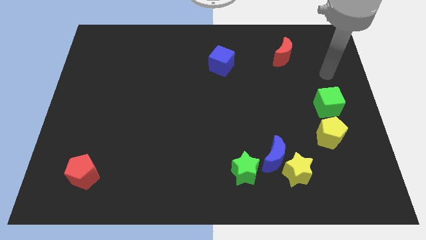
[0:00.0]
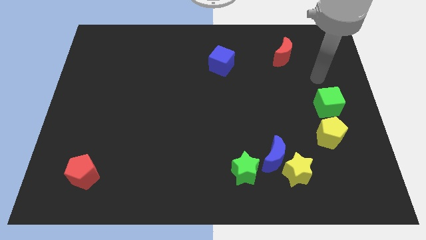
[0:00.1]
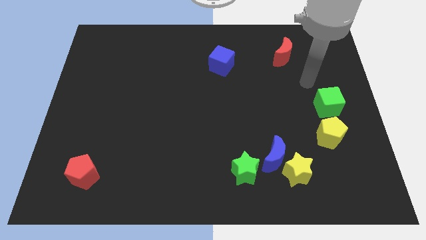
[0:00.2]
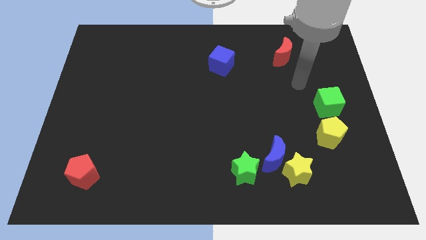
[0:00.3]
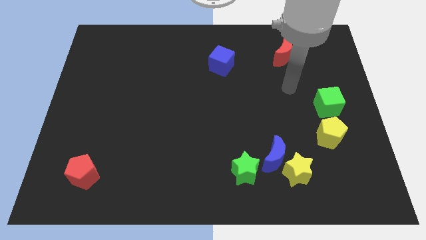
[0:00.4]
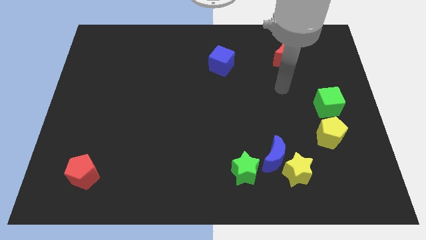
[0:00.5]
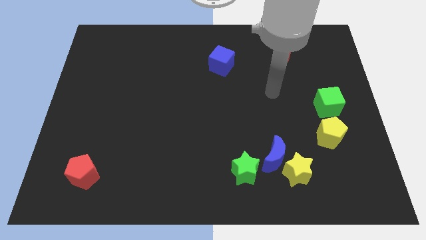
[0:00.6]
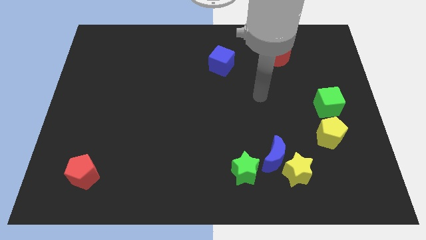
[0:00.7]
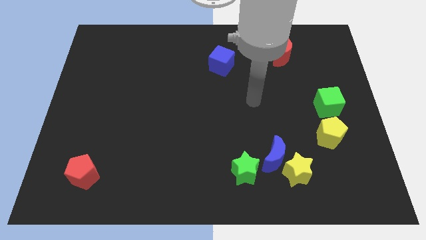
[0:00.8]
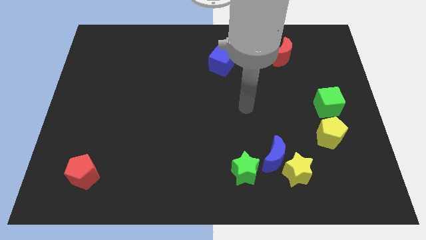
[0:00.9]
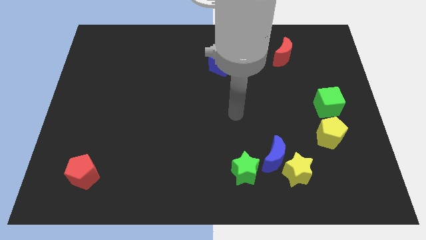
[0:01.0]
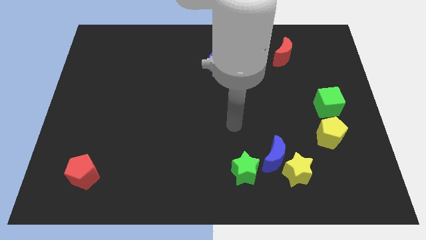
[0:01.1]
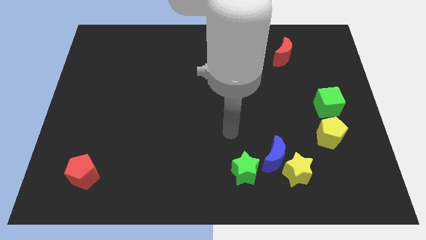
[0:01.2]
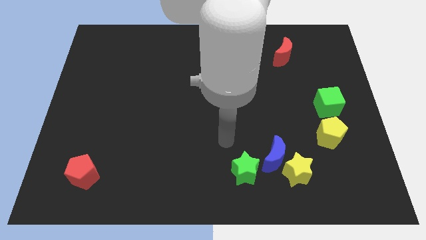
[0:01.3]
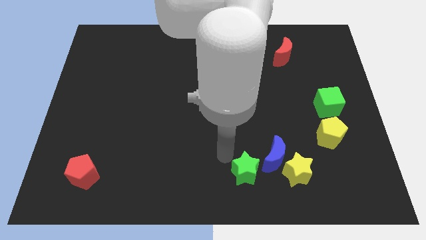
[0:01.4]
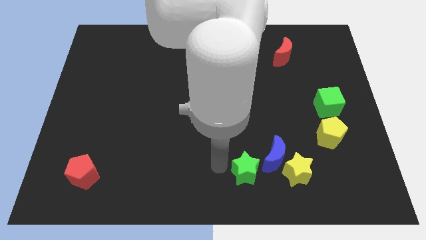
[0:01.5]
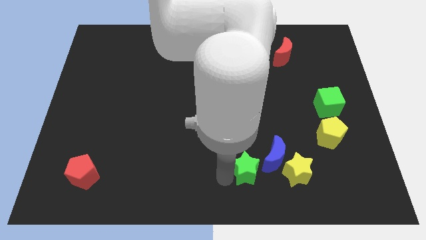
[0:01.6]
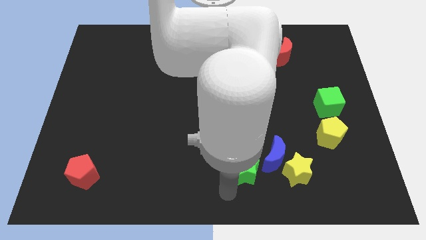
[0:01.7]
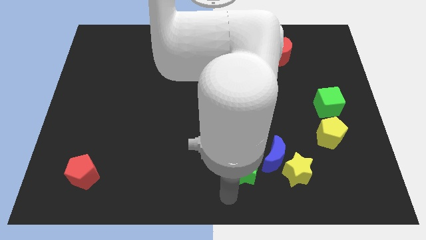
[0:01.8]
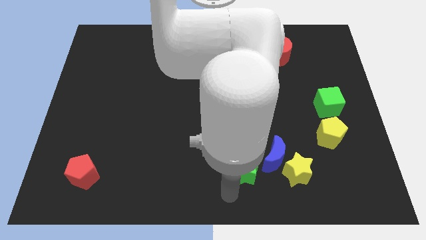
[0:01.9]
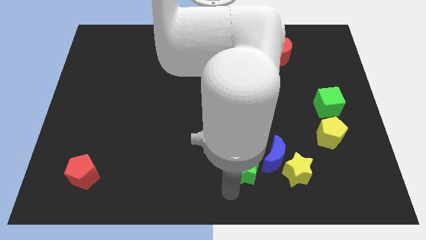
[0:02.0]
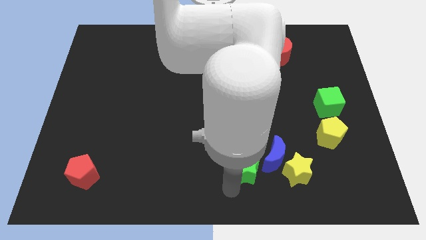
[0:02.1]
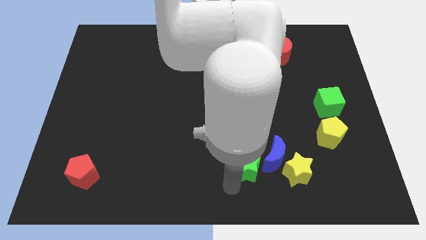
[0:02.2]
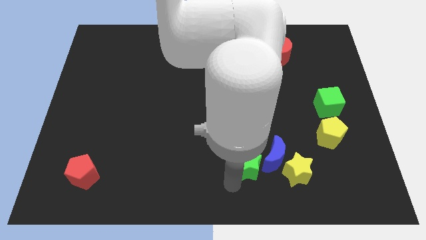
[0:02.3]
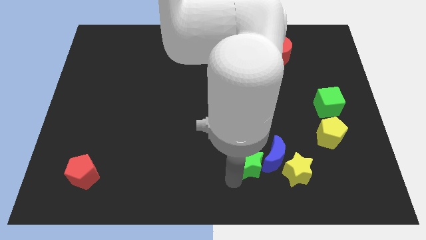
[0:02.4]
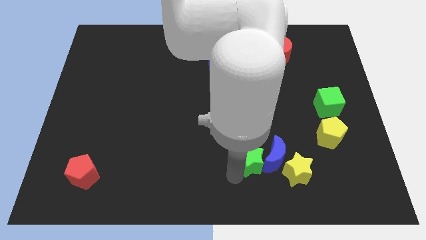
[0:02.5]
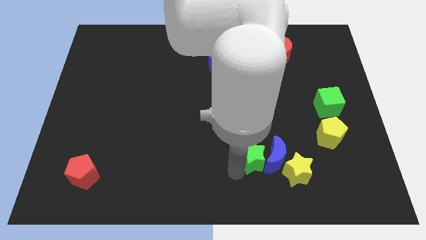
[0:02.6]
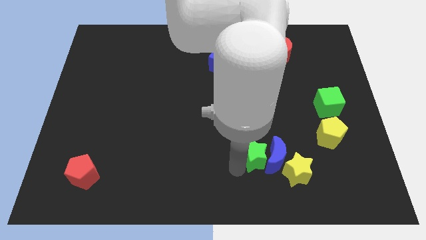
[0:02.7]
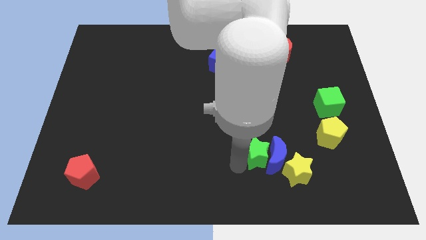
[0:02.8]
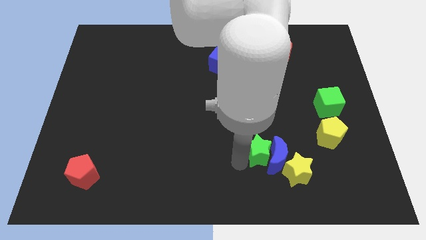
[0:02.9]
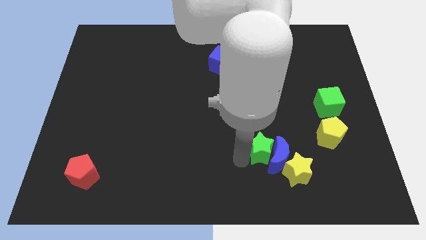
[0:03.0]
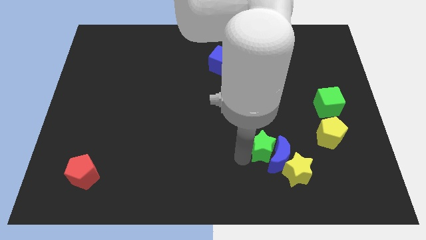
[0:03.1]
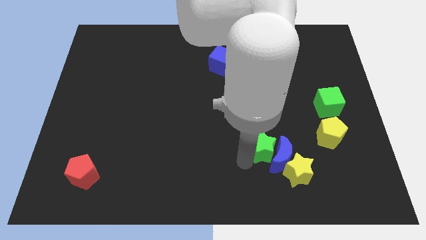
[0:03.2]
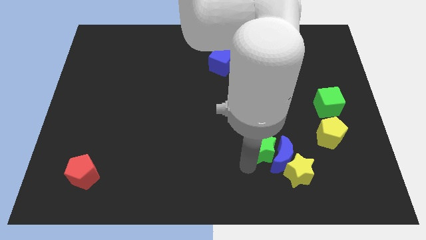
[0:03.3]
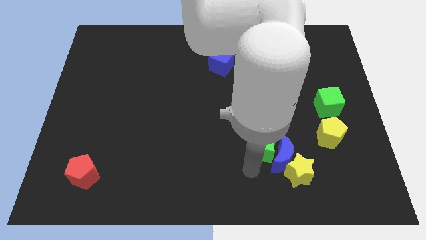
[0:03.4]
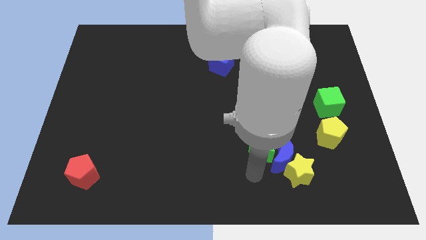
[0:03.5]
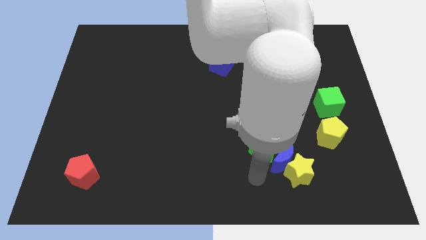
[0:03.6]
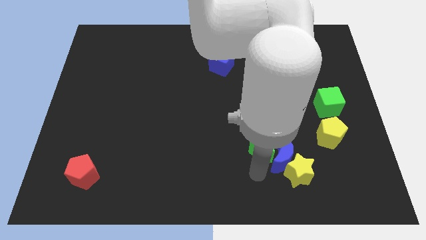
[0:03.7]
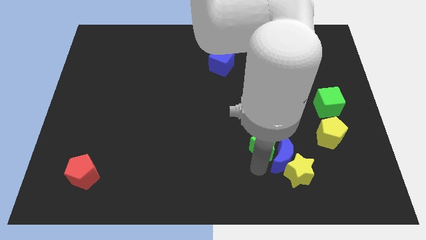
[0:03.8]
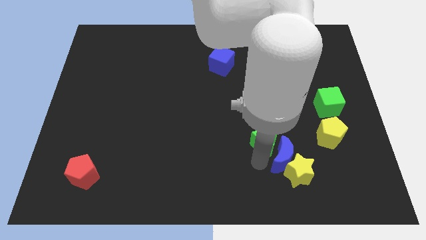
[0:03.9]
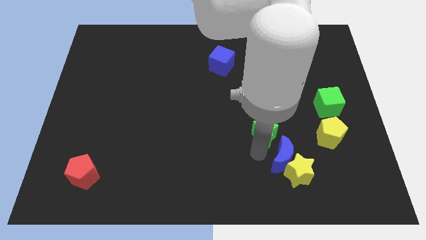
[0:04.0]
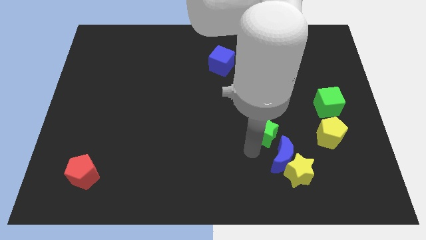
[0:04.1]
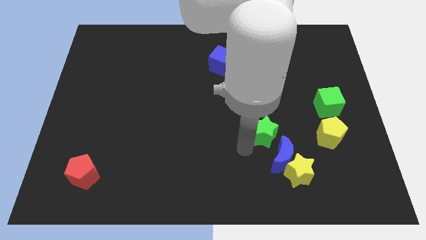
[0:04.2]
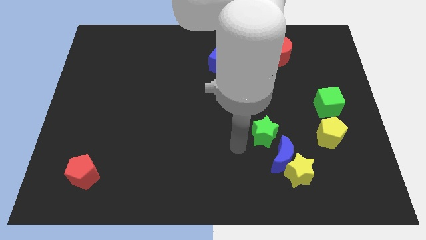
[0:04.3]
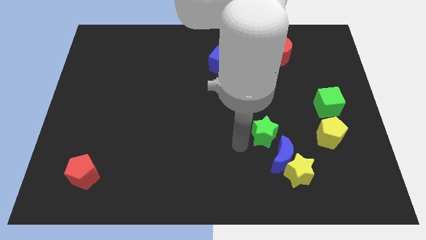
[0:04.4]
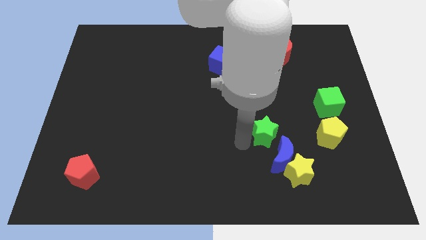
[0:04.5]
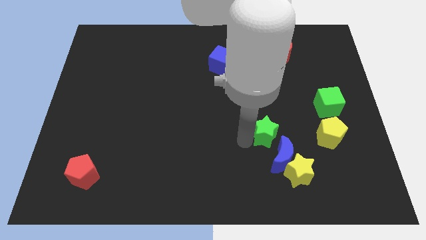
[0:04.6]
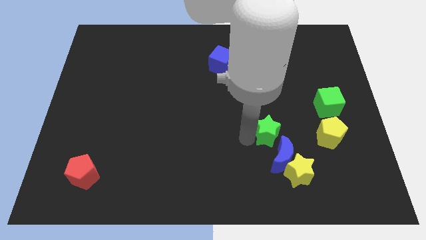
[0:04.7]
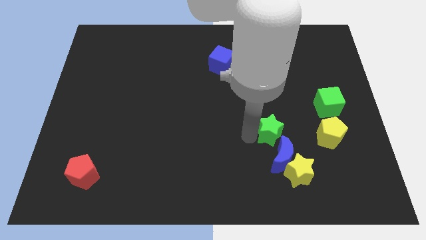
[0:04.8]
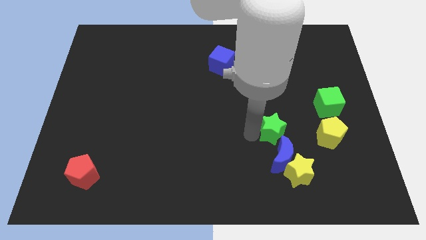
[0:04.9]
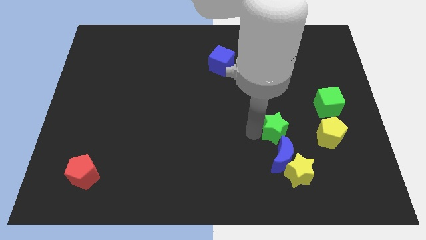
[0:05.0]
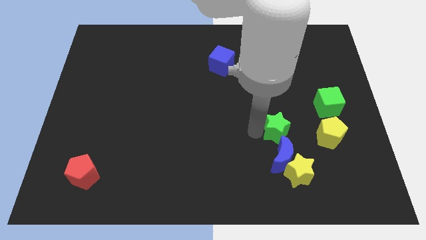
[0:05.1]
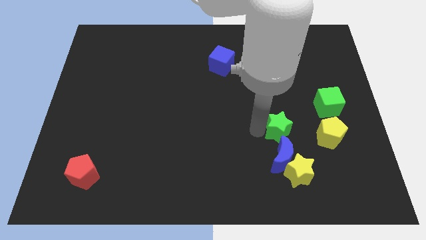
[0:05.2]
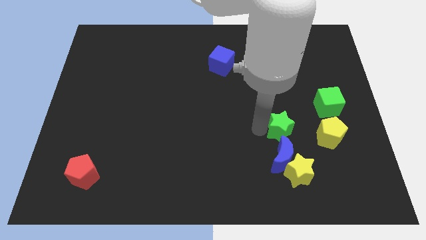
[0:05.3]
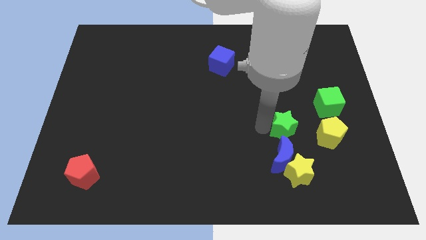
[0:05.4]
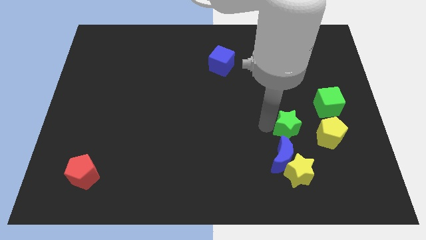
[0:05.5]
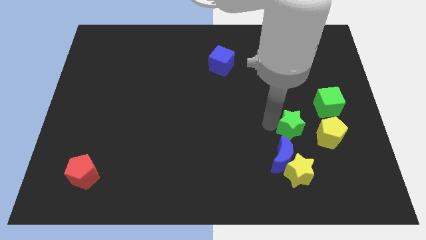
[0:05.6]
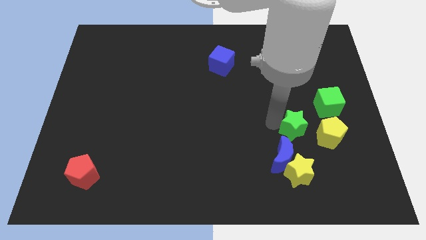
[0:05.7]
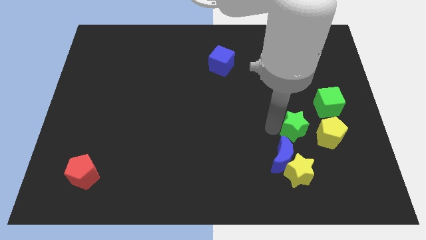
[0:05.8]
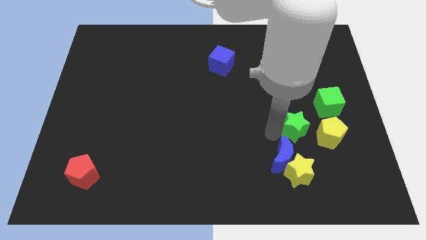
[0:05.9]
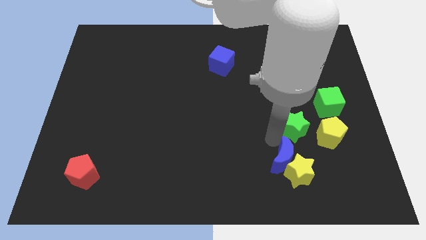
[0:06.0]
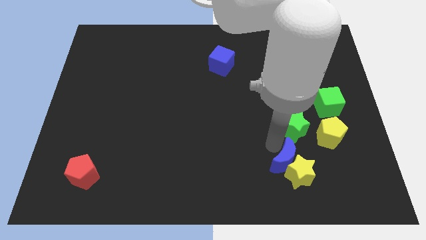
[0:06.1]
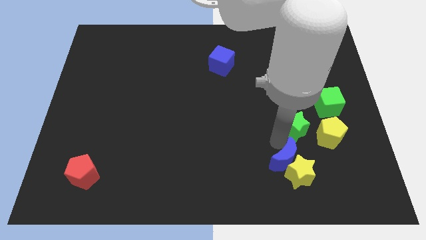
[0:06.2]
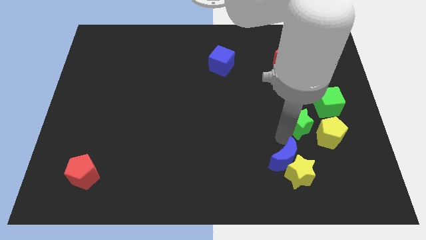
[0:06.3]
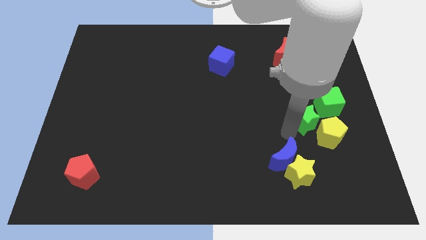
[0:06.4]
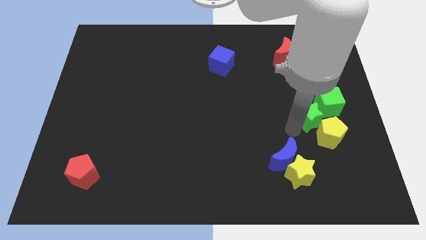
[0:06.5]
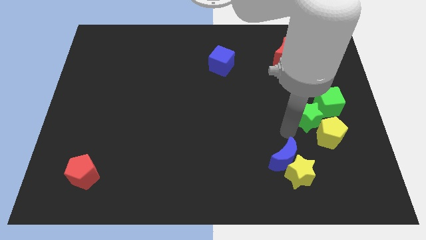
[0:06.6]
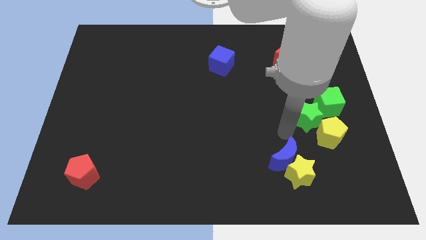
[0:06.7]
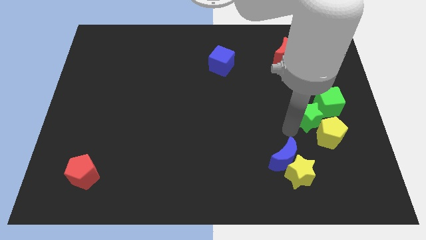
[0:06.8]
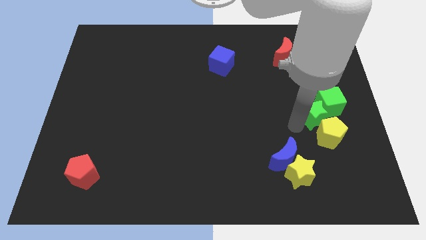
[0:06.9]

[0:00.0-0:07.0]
move the green star towards the green cube

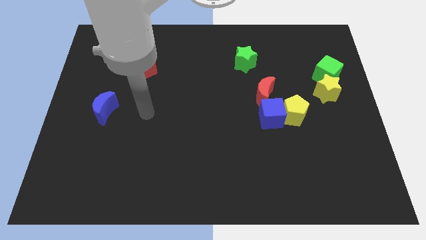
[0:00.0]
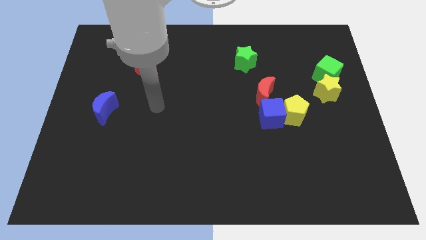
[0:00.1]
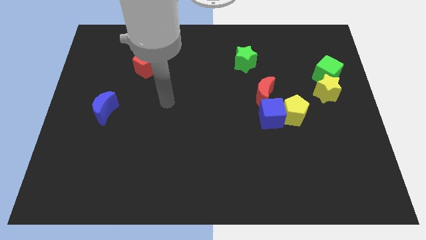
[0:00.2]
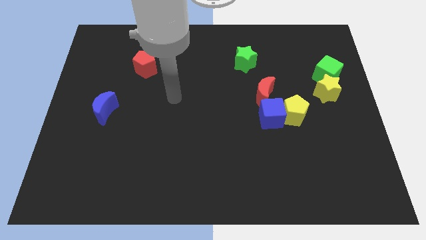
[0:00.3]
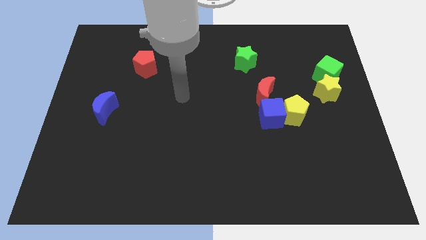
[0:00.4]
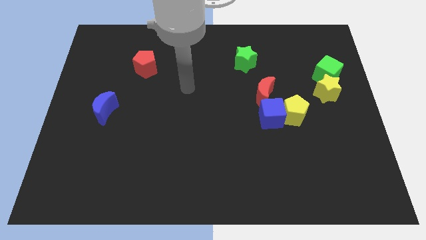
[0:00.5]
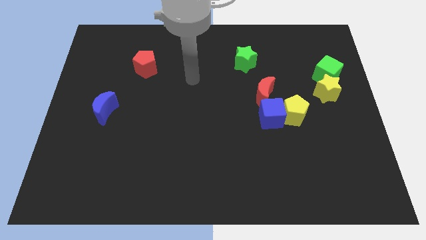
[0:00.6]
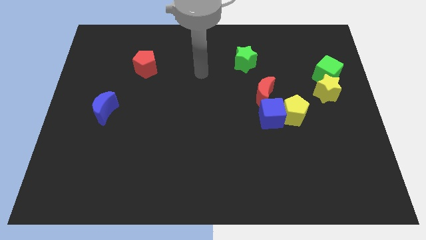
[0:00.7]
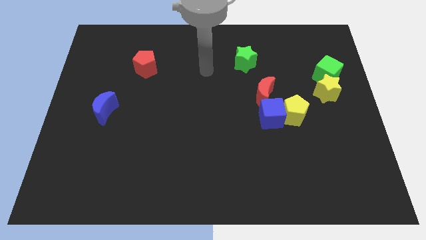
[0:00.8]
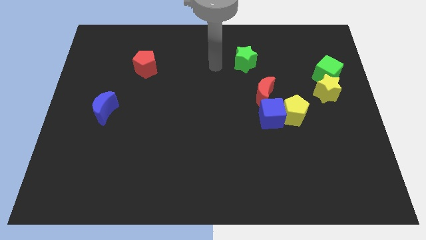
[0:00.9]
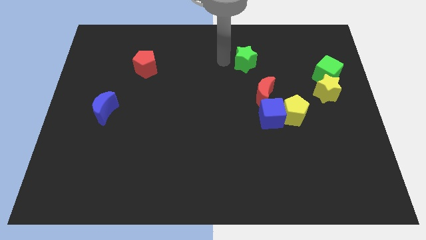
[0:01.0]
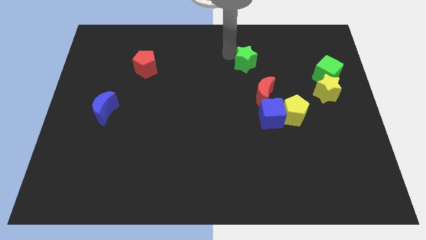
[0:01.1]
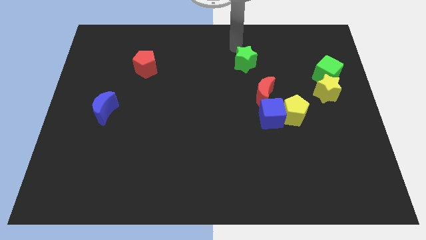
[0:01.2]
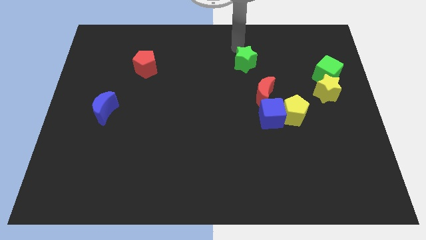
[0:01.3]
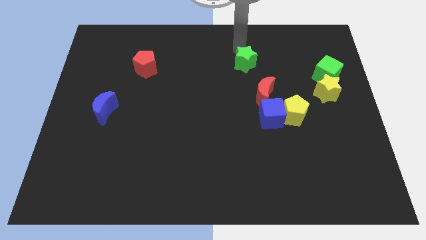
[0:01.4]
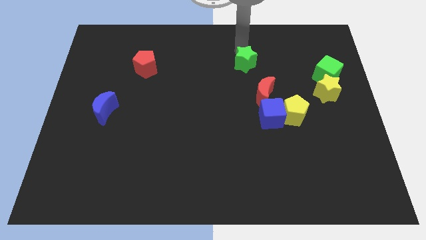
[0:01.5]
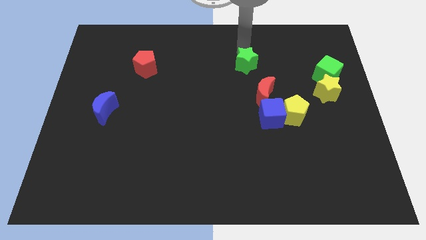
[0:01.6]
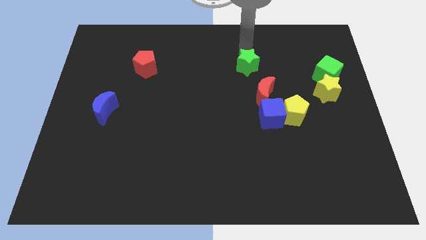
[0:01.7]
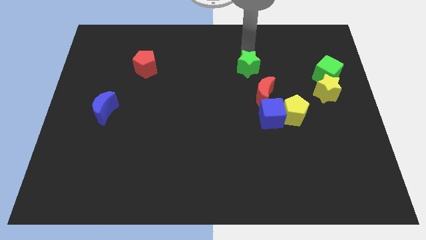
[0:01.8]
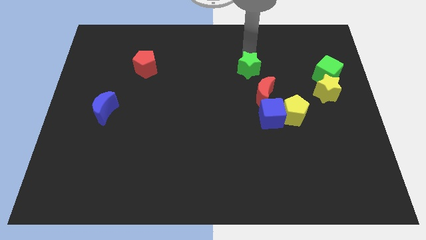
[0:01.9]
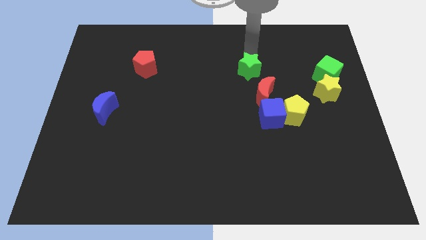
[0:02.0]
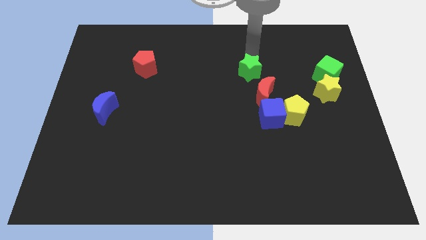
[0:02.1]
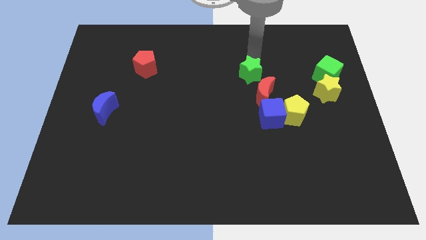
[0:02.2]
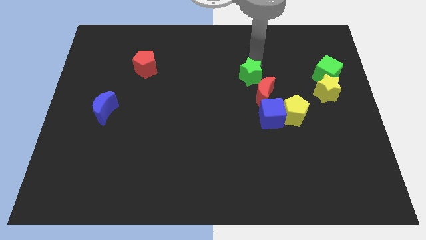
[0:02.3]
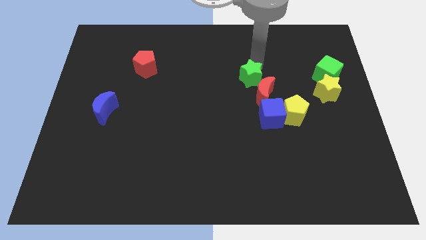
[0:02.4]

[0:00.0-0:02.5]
move the green star to the red moon
